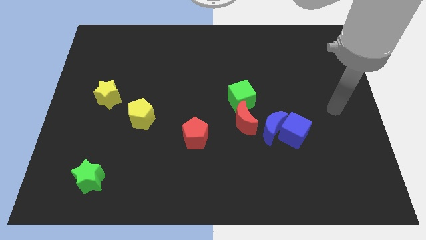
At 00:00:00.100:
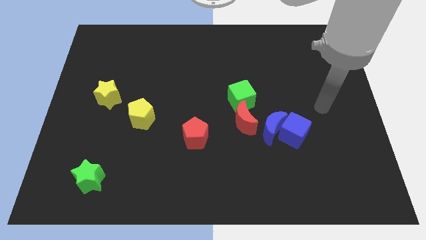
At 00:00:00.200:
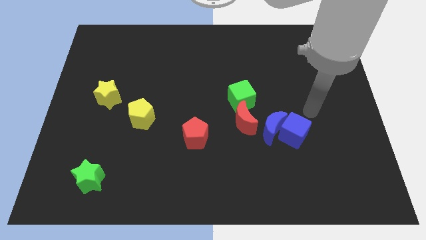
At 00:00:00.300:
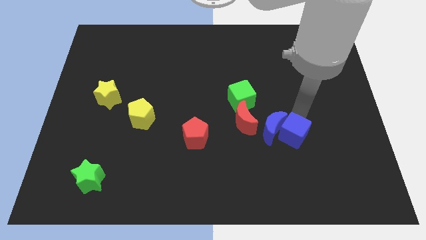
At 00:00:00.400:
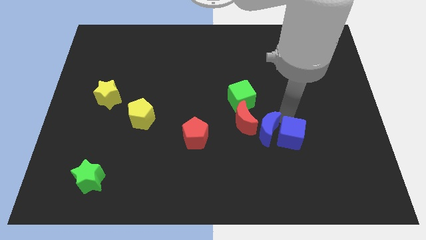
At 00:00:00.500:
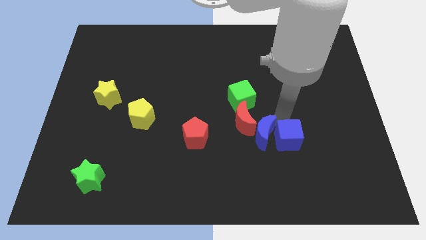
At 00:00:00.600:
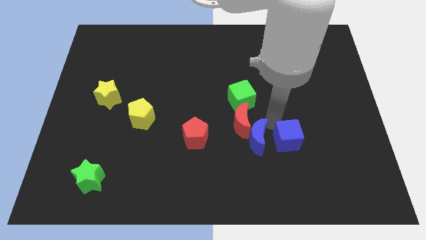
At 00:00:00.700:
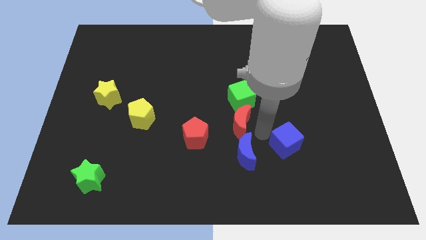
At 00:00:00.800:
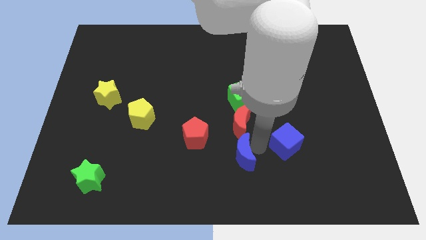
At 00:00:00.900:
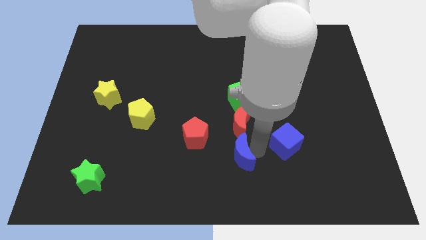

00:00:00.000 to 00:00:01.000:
separate the blue cube from the blue moon

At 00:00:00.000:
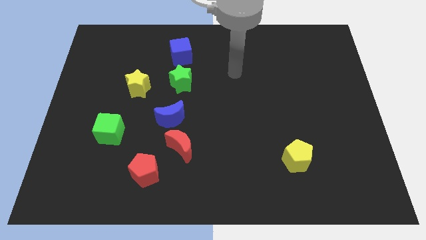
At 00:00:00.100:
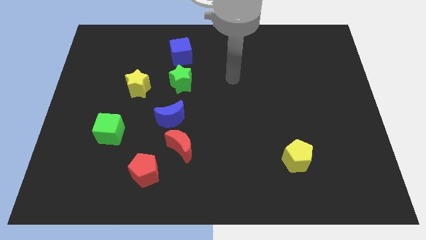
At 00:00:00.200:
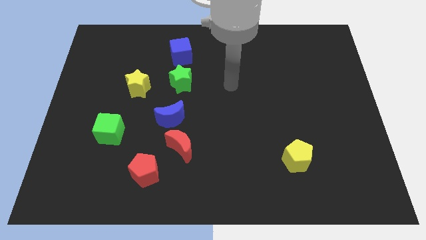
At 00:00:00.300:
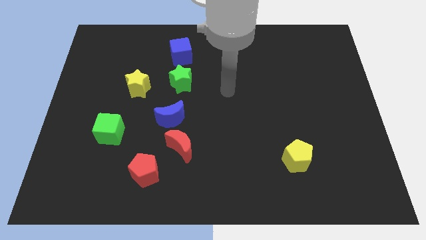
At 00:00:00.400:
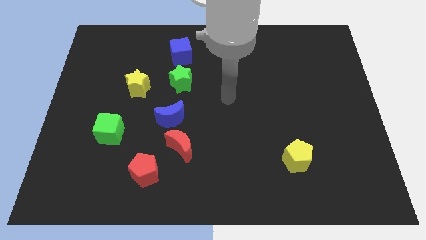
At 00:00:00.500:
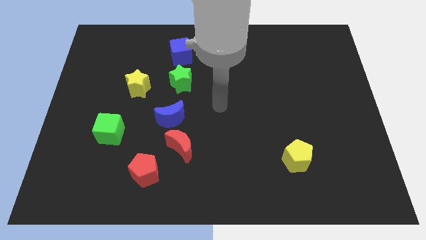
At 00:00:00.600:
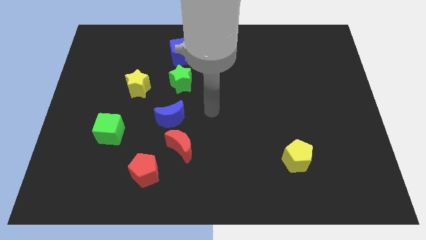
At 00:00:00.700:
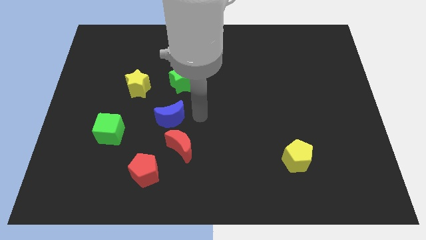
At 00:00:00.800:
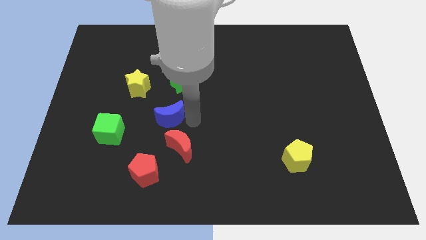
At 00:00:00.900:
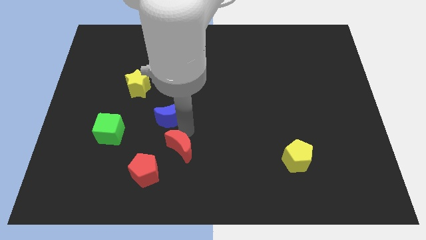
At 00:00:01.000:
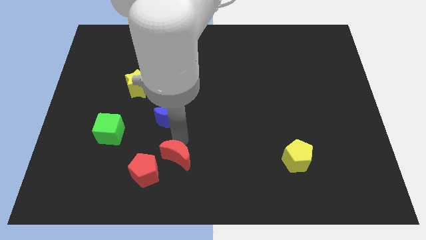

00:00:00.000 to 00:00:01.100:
pull the blue moon apart from the red moon

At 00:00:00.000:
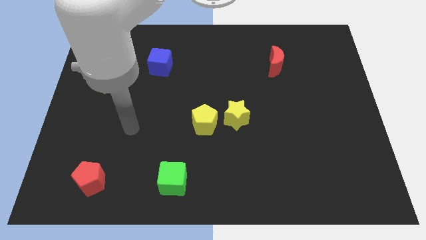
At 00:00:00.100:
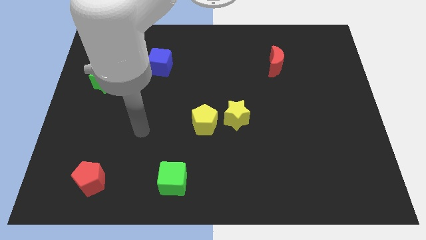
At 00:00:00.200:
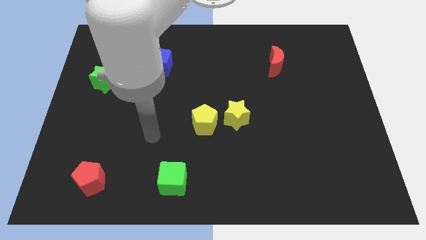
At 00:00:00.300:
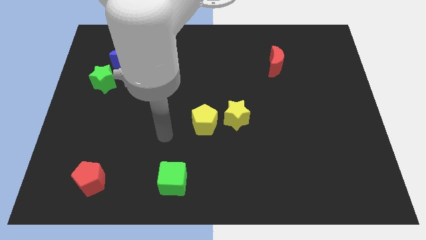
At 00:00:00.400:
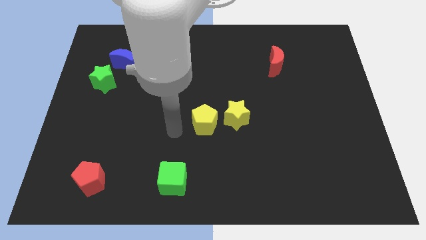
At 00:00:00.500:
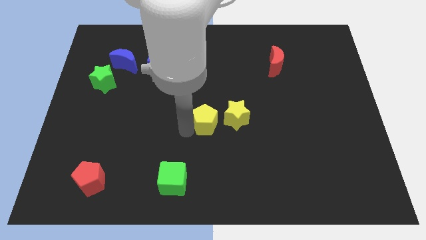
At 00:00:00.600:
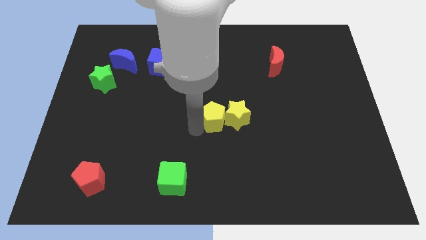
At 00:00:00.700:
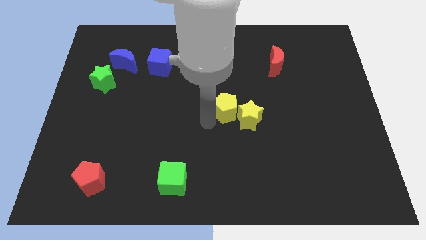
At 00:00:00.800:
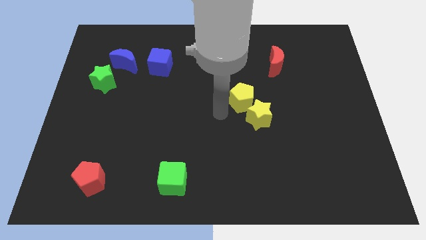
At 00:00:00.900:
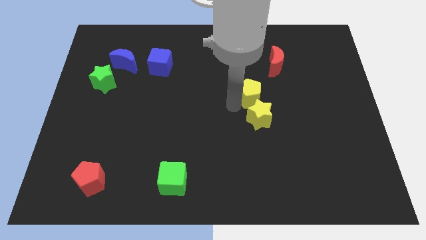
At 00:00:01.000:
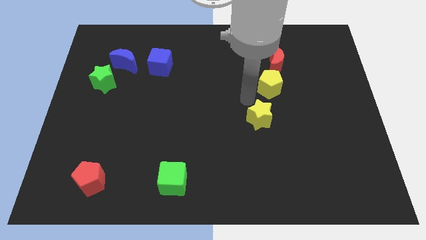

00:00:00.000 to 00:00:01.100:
separate the yellow star from the yellow pentagon

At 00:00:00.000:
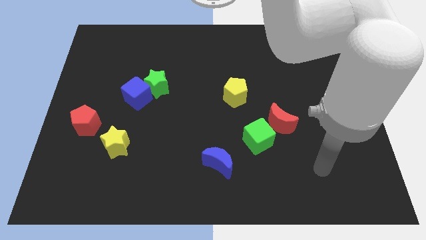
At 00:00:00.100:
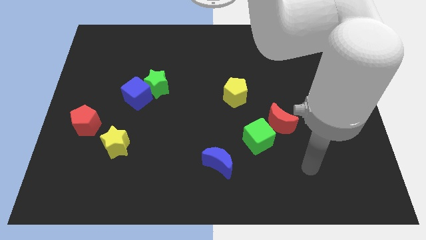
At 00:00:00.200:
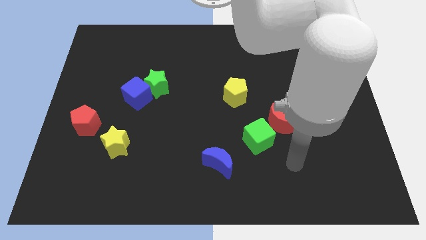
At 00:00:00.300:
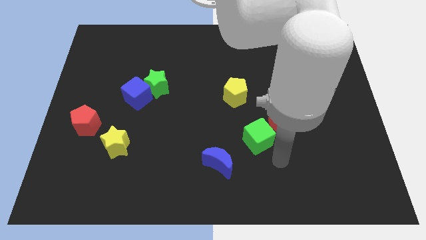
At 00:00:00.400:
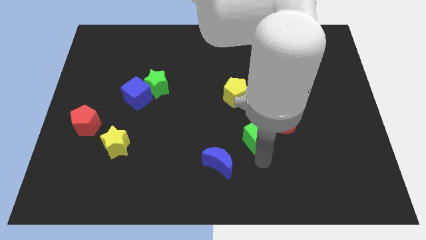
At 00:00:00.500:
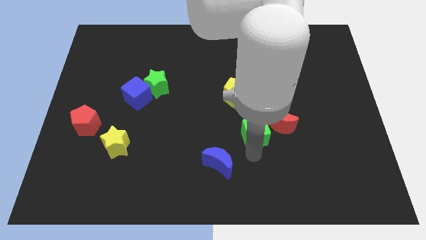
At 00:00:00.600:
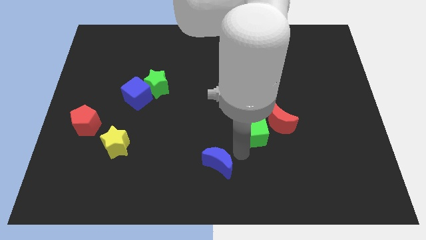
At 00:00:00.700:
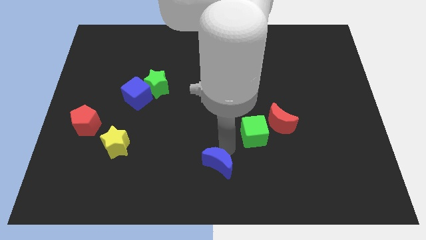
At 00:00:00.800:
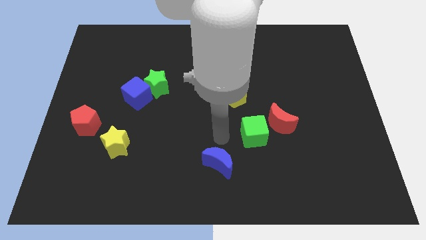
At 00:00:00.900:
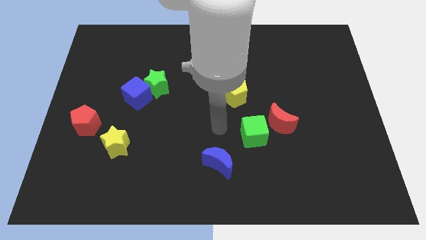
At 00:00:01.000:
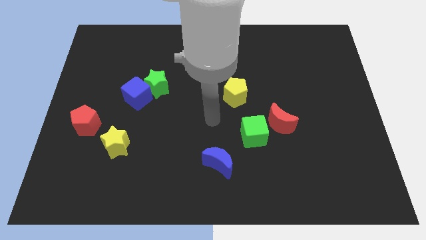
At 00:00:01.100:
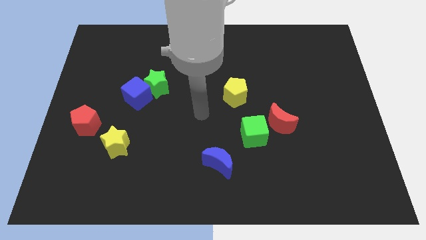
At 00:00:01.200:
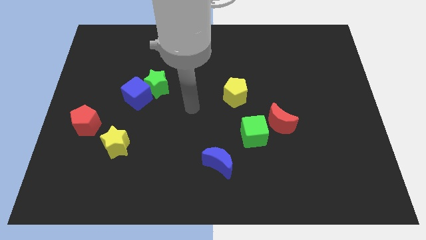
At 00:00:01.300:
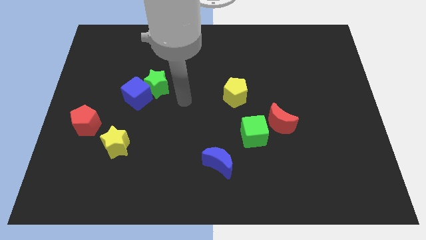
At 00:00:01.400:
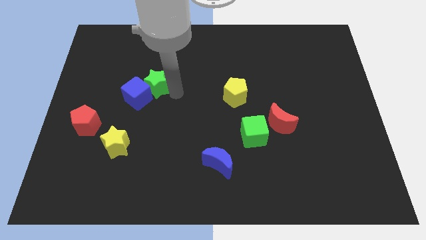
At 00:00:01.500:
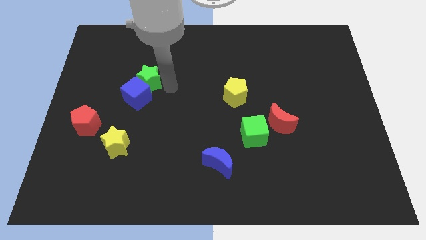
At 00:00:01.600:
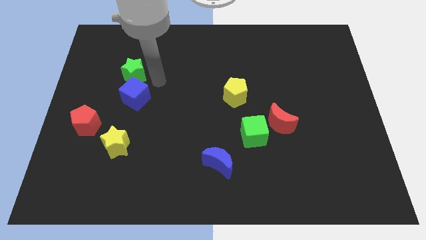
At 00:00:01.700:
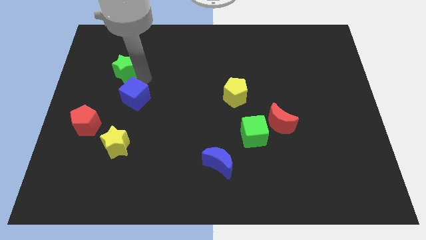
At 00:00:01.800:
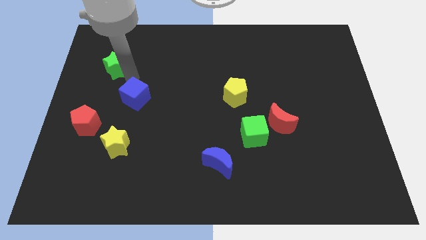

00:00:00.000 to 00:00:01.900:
separate the blue cube from the green star

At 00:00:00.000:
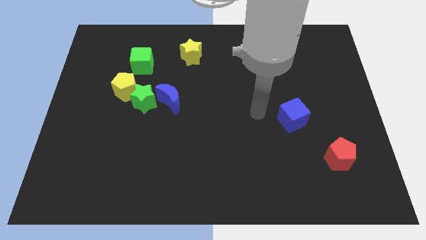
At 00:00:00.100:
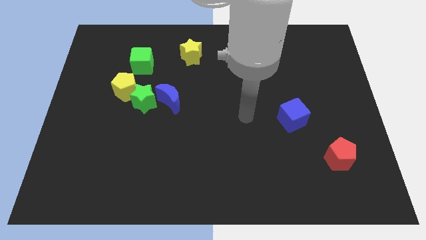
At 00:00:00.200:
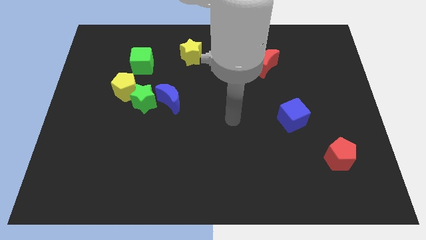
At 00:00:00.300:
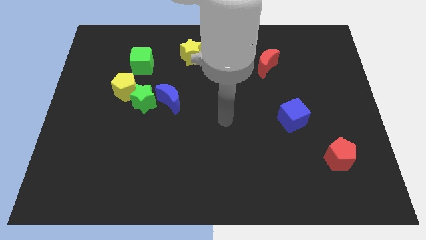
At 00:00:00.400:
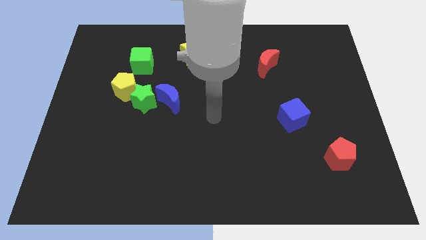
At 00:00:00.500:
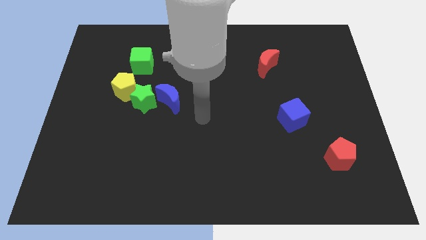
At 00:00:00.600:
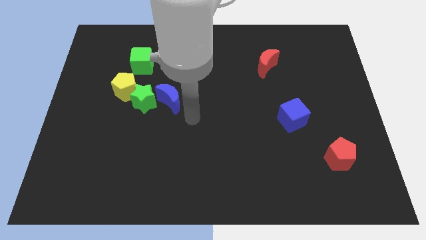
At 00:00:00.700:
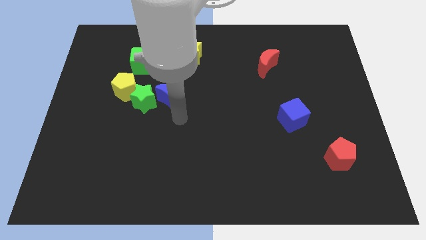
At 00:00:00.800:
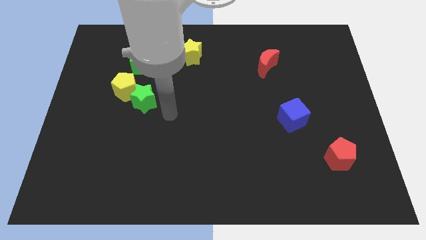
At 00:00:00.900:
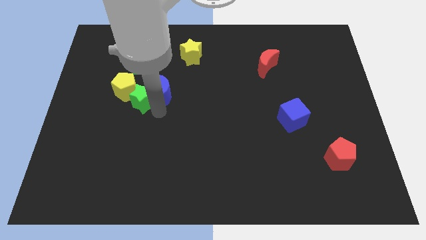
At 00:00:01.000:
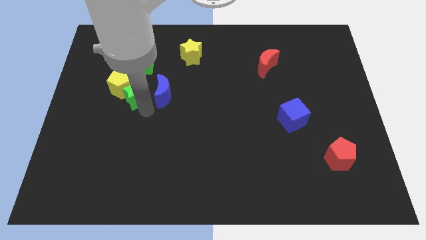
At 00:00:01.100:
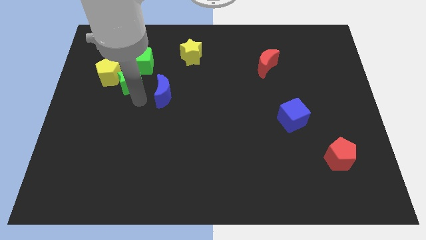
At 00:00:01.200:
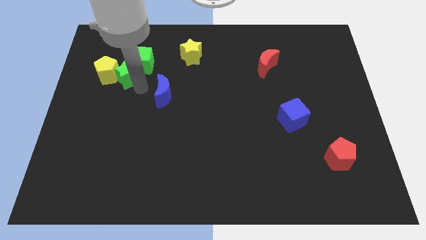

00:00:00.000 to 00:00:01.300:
move the blue moon away from the green star

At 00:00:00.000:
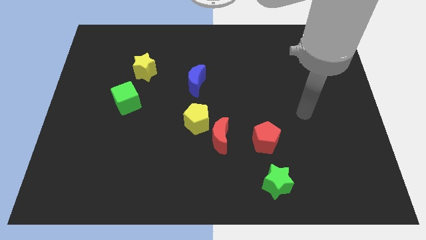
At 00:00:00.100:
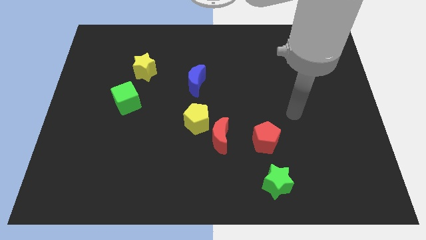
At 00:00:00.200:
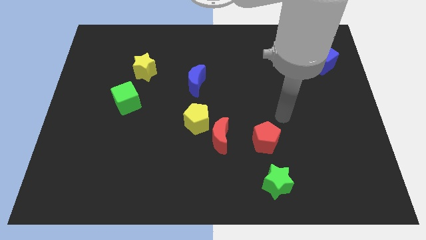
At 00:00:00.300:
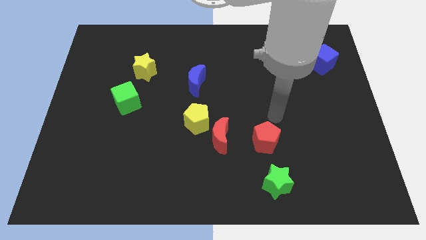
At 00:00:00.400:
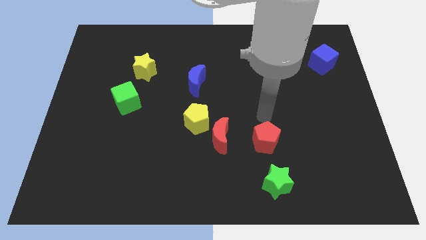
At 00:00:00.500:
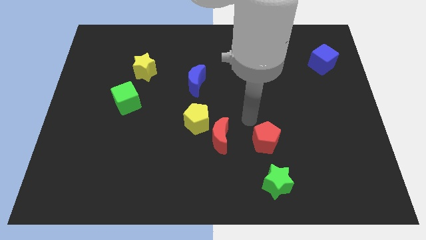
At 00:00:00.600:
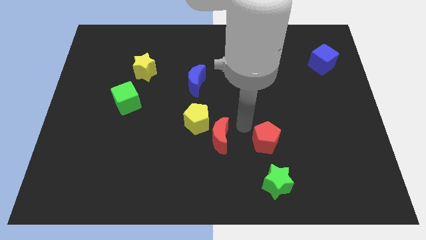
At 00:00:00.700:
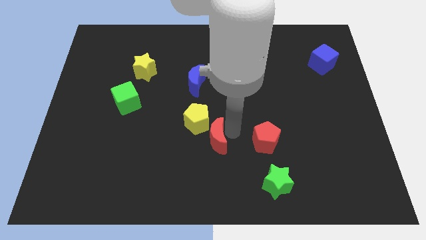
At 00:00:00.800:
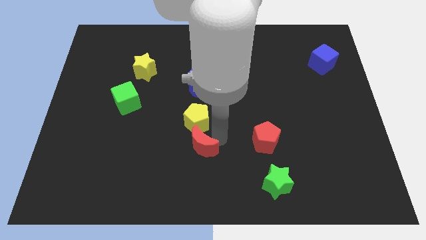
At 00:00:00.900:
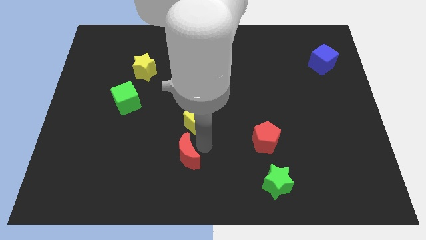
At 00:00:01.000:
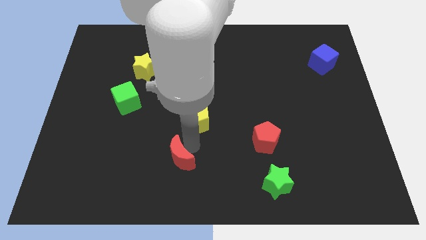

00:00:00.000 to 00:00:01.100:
separate the yellow pentagon from the red moon

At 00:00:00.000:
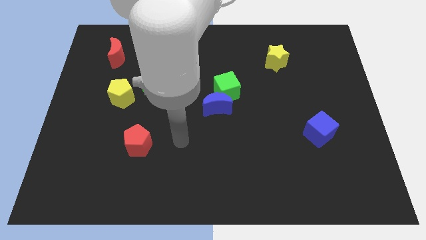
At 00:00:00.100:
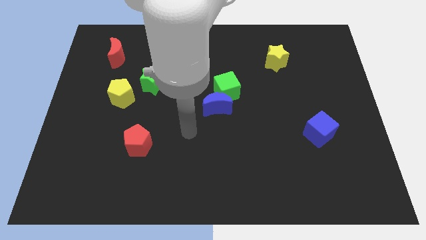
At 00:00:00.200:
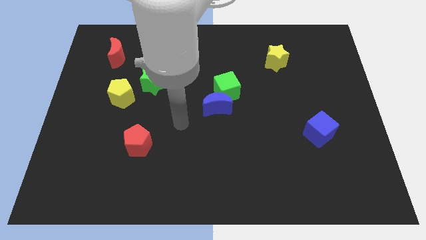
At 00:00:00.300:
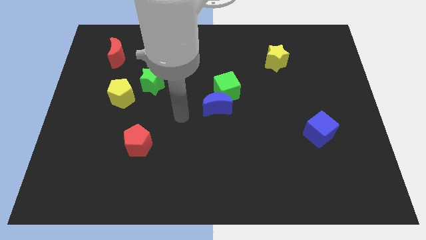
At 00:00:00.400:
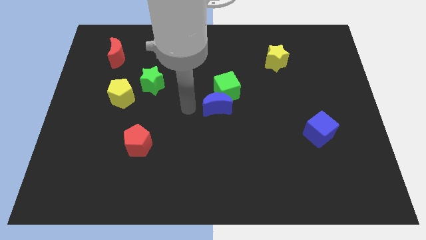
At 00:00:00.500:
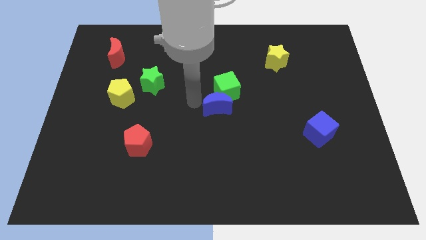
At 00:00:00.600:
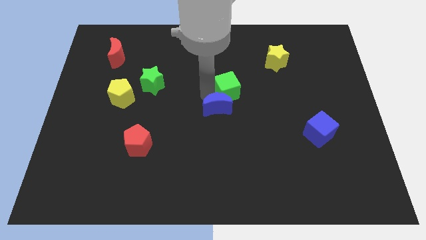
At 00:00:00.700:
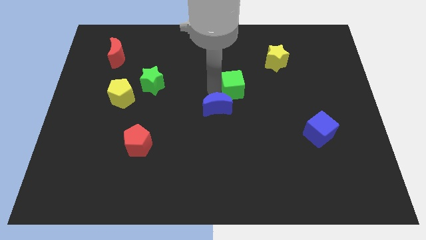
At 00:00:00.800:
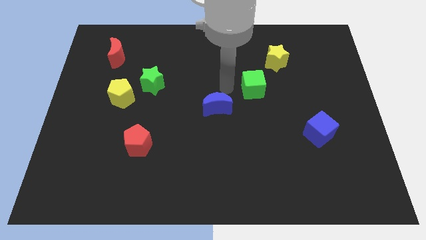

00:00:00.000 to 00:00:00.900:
separate the blue moon from the green cube

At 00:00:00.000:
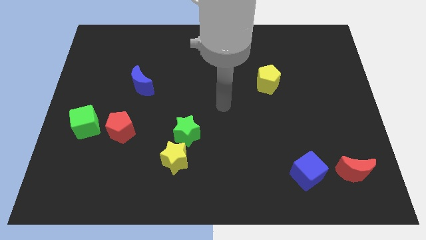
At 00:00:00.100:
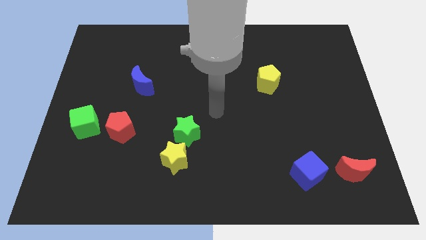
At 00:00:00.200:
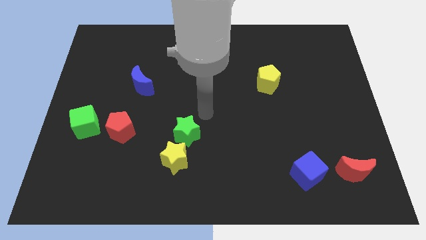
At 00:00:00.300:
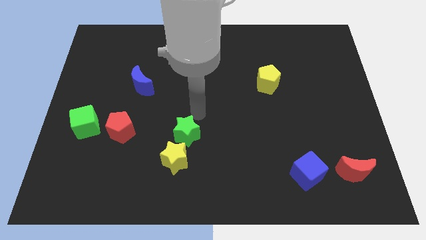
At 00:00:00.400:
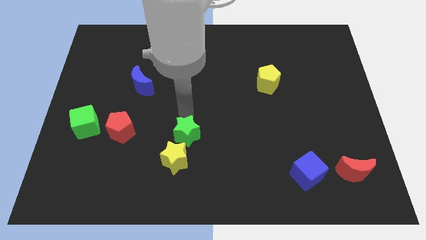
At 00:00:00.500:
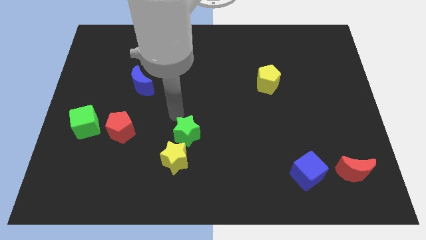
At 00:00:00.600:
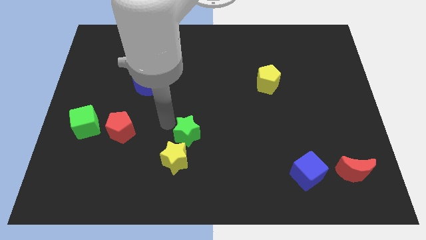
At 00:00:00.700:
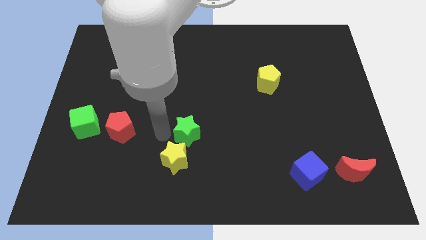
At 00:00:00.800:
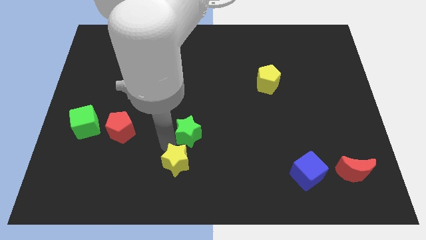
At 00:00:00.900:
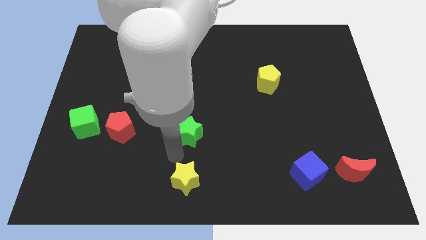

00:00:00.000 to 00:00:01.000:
separate the green star from the yellow star
